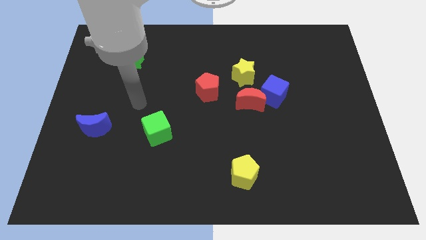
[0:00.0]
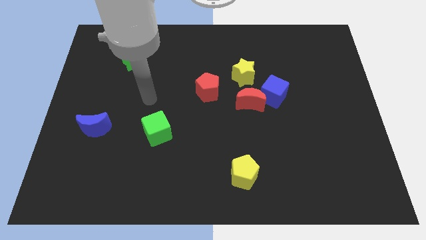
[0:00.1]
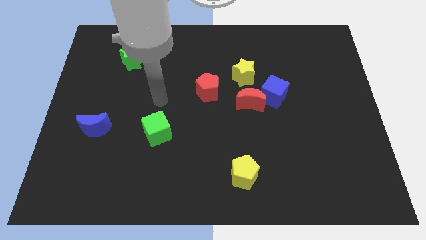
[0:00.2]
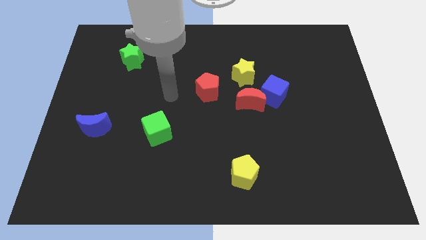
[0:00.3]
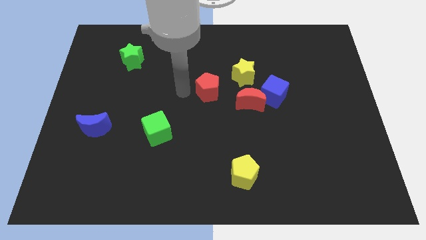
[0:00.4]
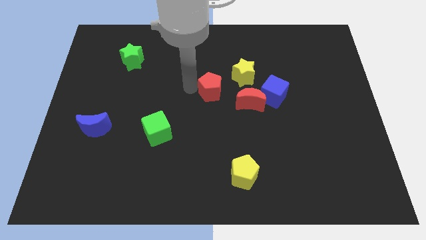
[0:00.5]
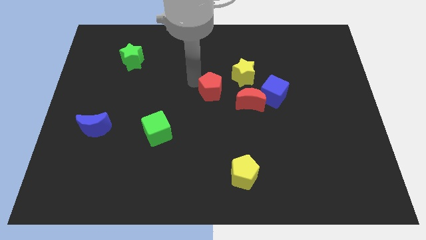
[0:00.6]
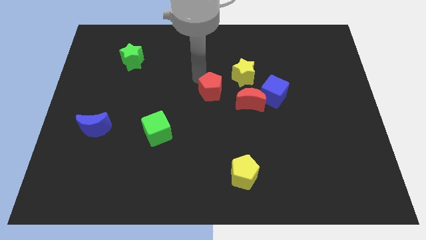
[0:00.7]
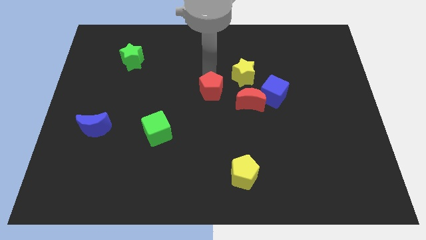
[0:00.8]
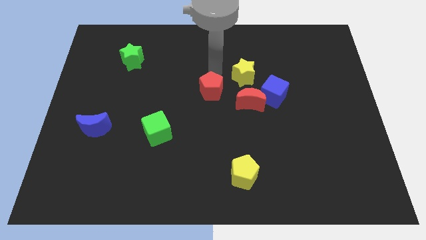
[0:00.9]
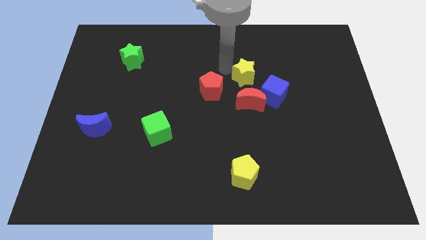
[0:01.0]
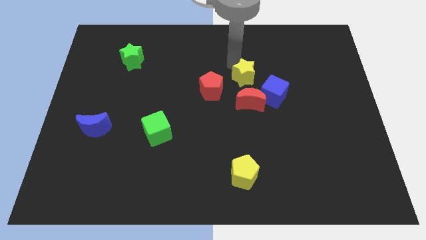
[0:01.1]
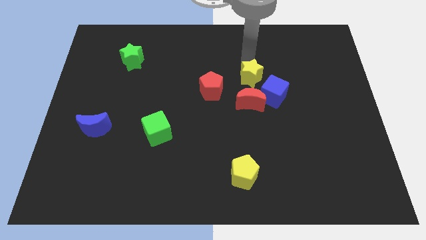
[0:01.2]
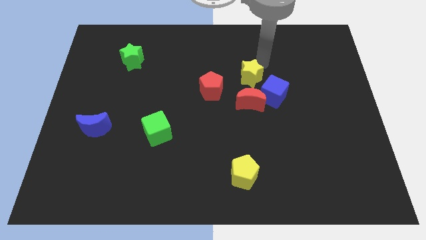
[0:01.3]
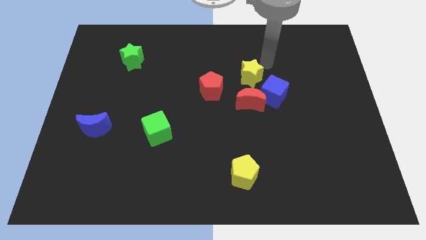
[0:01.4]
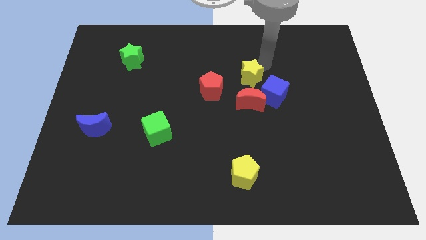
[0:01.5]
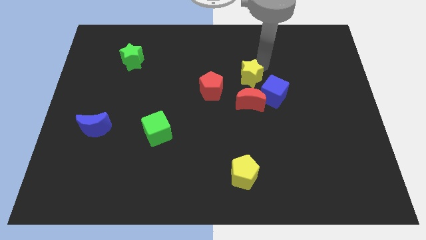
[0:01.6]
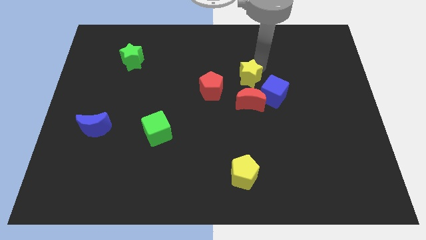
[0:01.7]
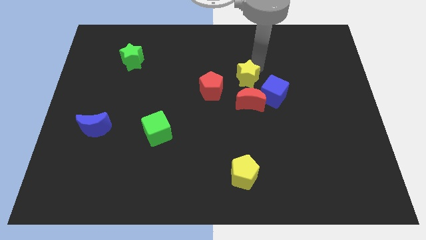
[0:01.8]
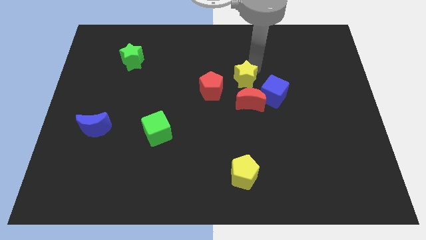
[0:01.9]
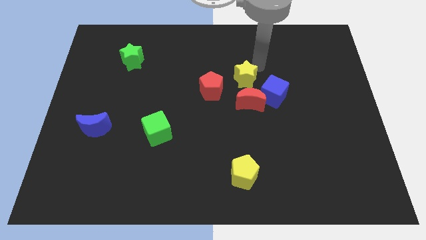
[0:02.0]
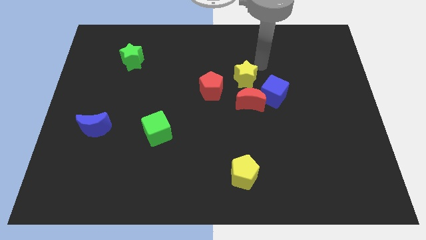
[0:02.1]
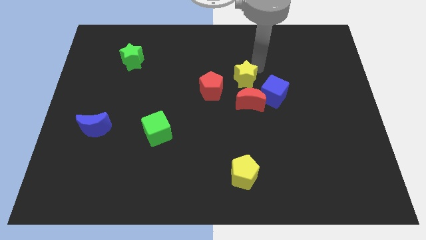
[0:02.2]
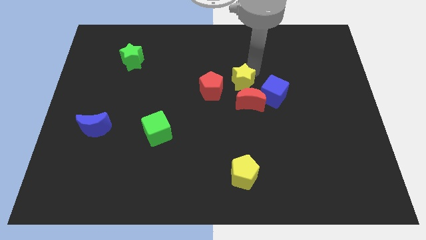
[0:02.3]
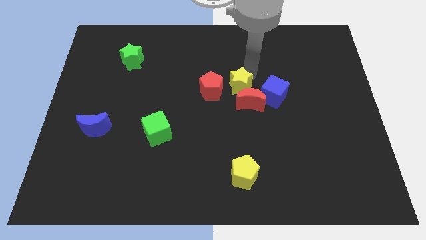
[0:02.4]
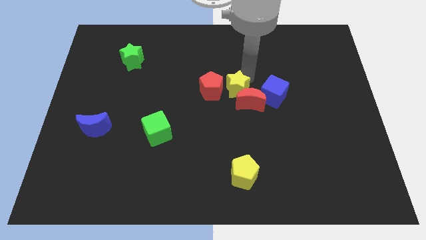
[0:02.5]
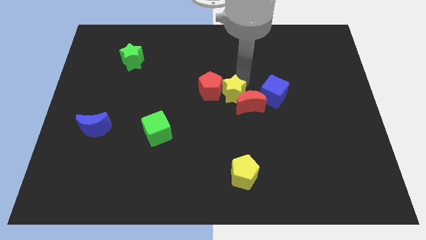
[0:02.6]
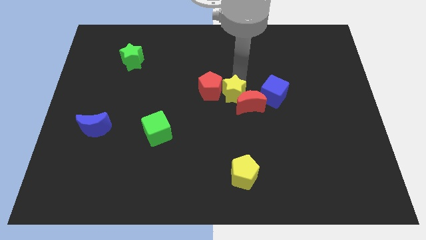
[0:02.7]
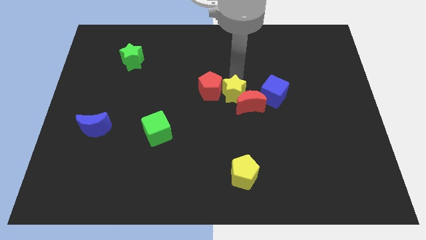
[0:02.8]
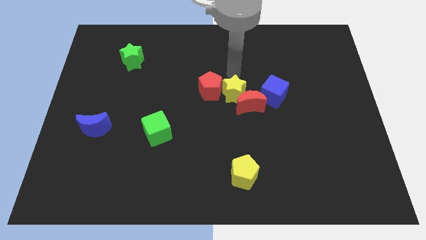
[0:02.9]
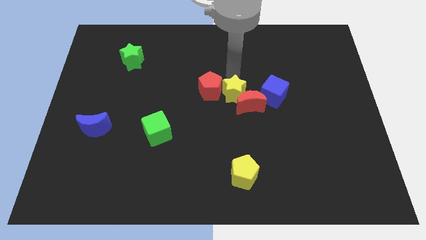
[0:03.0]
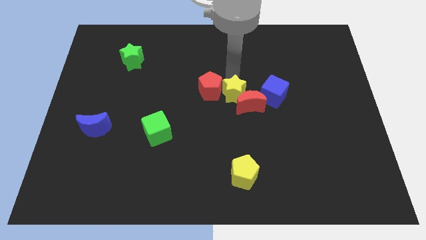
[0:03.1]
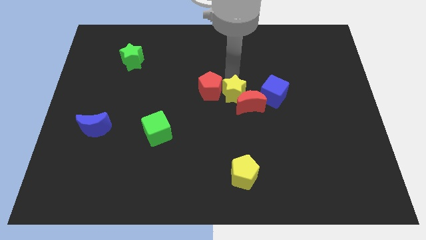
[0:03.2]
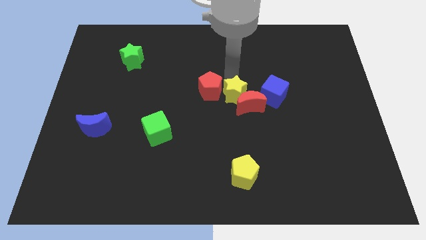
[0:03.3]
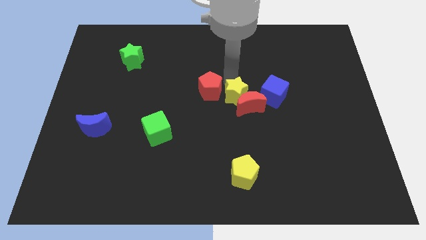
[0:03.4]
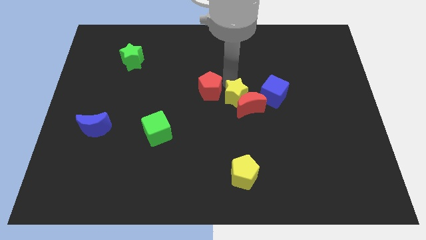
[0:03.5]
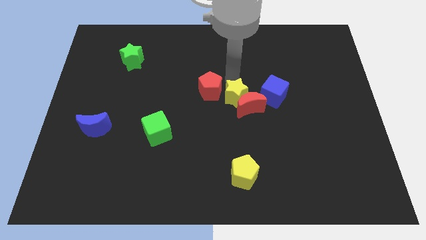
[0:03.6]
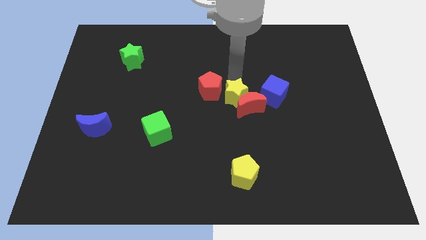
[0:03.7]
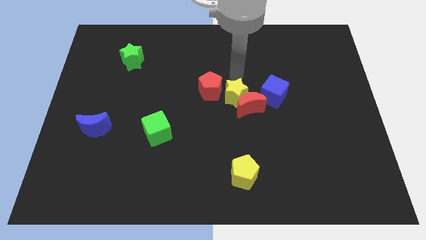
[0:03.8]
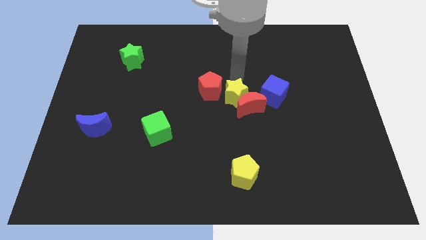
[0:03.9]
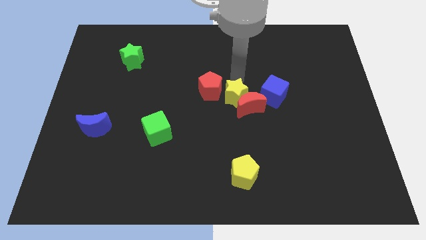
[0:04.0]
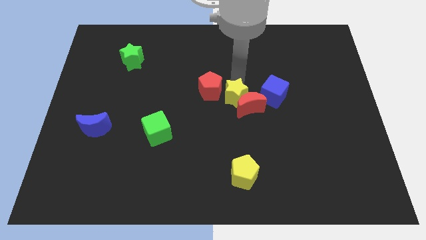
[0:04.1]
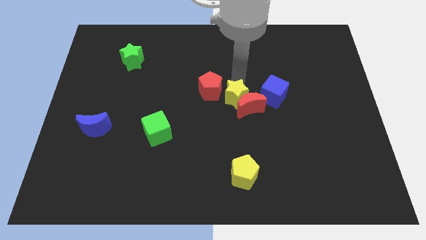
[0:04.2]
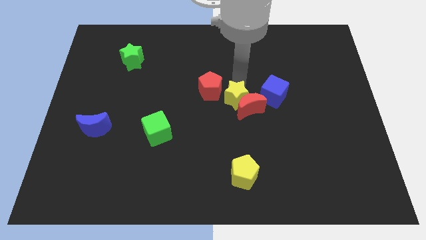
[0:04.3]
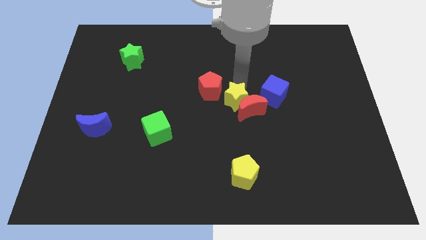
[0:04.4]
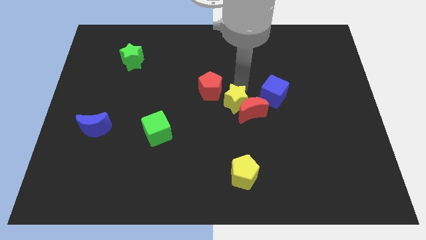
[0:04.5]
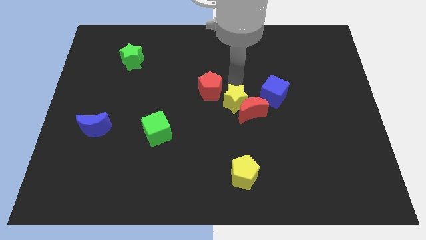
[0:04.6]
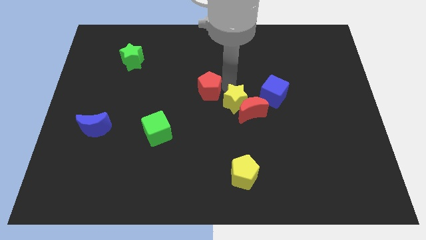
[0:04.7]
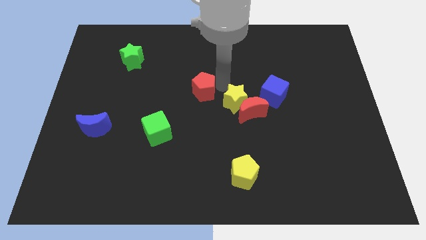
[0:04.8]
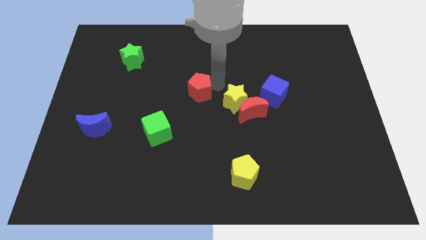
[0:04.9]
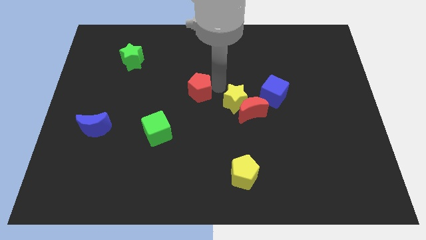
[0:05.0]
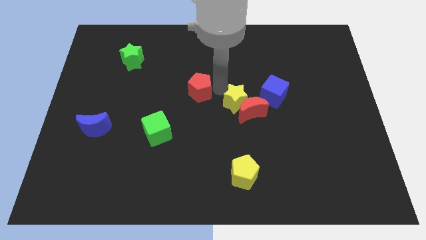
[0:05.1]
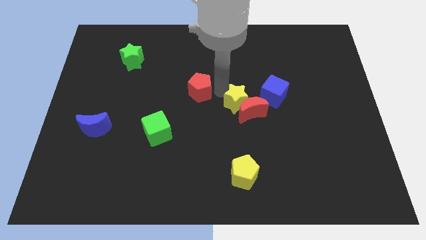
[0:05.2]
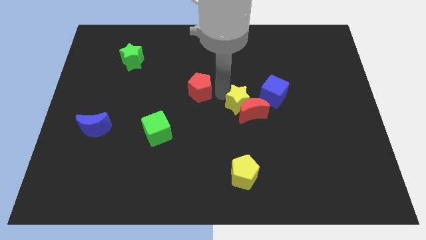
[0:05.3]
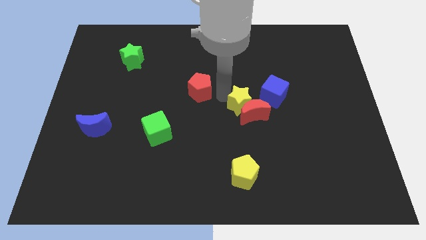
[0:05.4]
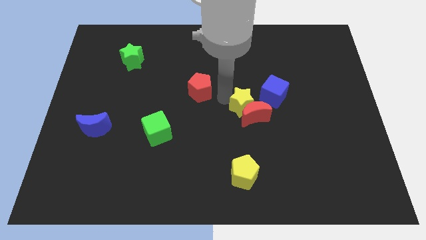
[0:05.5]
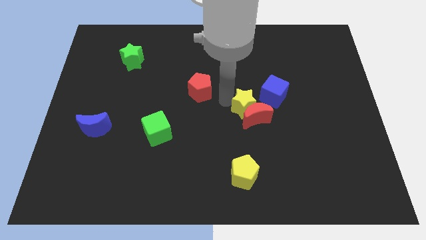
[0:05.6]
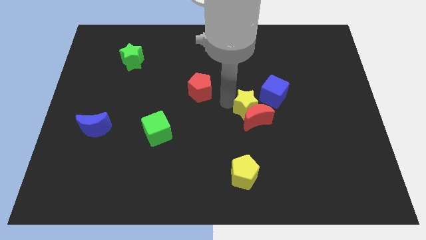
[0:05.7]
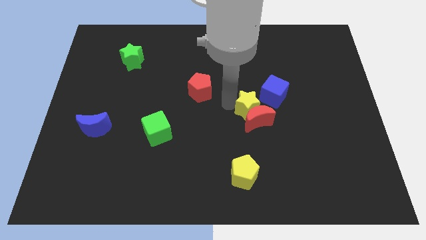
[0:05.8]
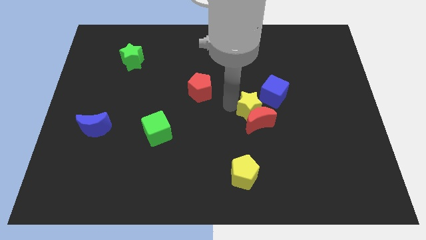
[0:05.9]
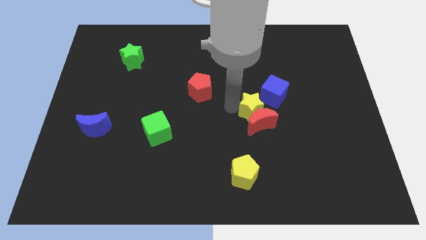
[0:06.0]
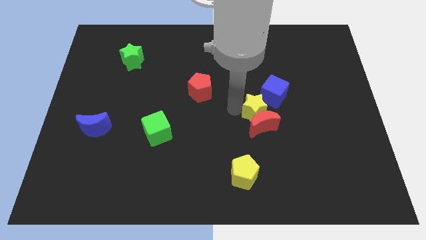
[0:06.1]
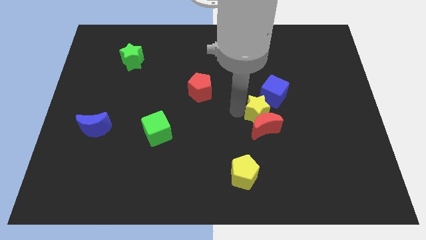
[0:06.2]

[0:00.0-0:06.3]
slide the yellow star below the blue cube

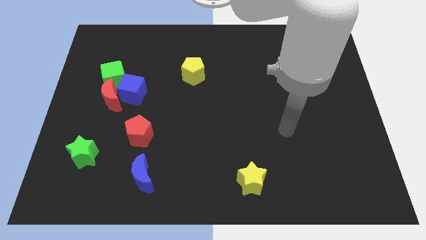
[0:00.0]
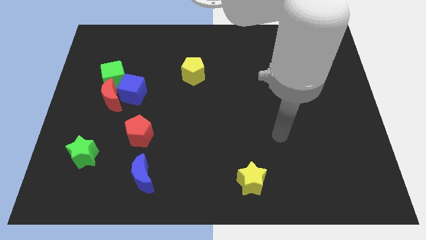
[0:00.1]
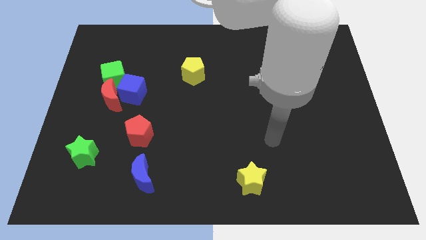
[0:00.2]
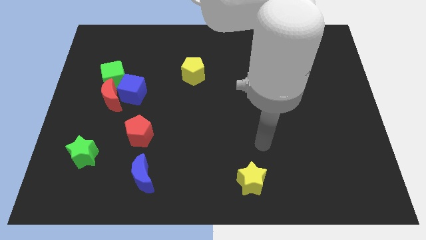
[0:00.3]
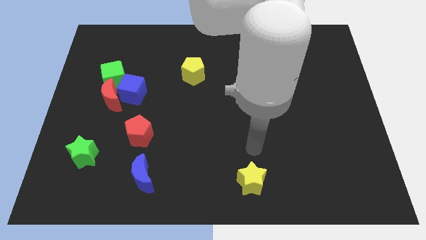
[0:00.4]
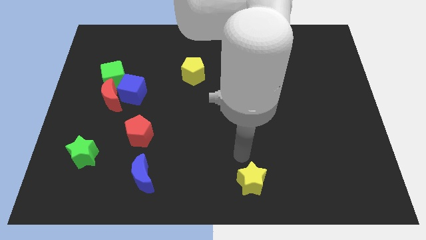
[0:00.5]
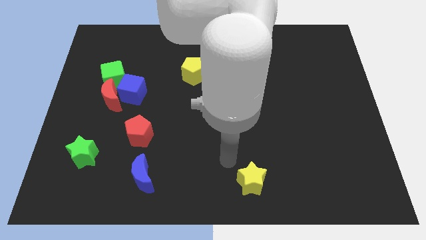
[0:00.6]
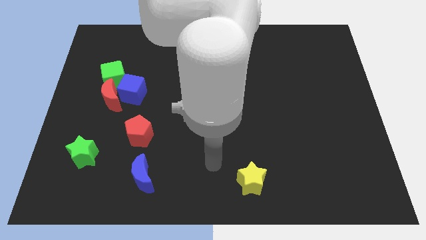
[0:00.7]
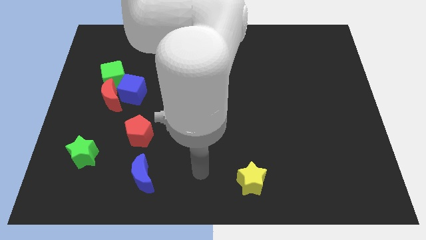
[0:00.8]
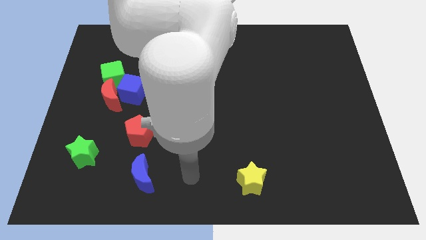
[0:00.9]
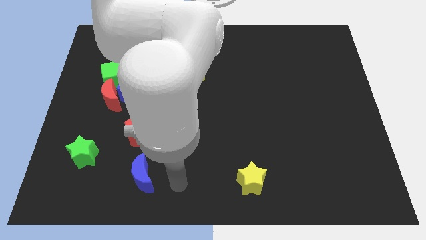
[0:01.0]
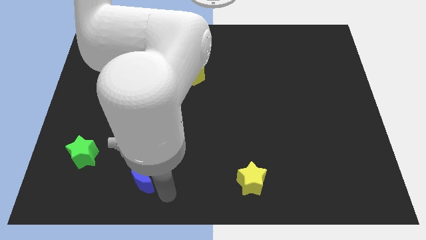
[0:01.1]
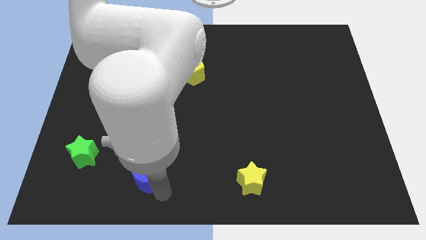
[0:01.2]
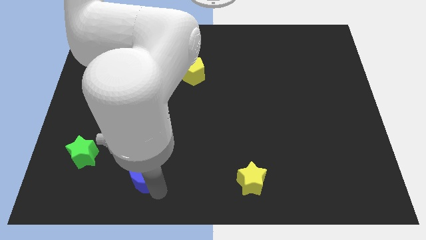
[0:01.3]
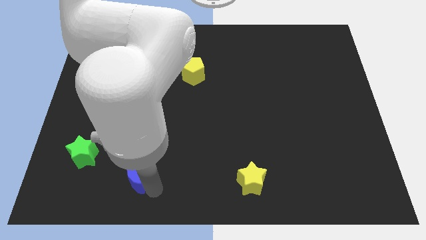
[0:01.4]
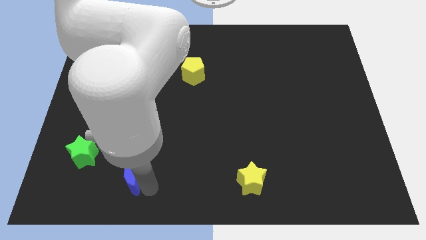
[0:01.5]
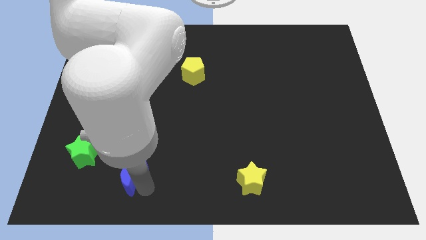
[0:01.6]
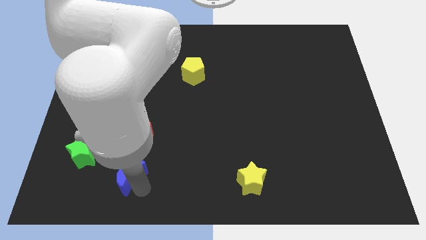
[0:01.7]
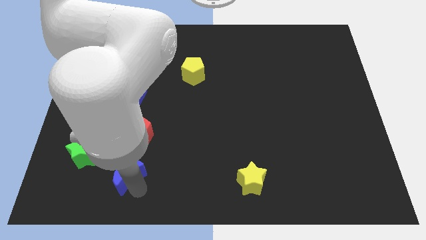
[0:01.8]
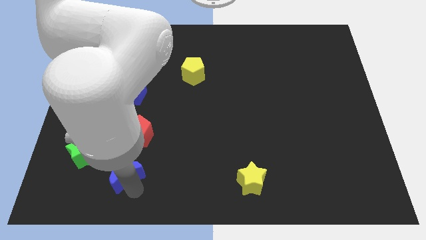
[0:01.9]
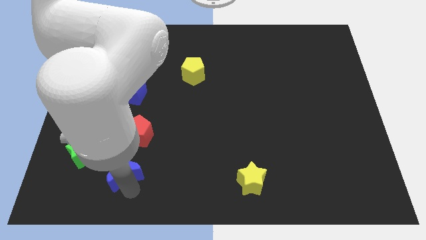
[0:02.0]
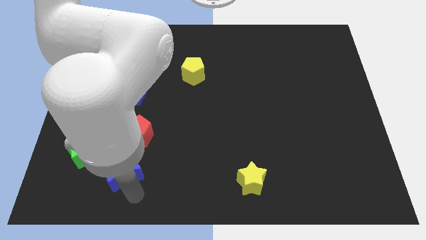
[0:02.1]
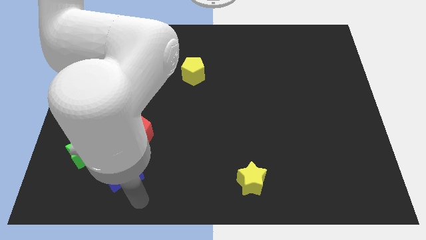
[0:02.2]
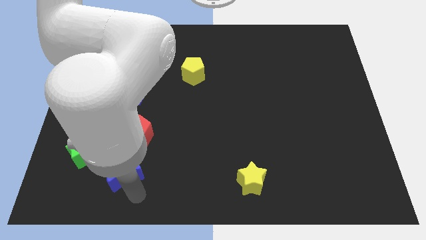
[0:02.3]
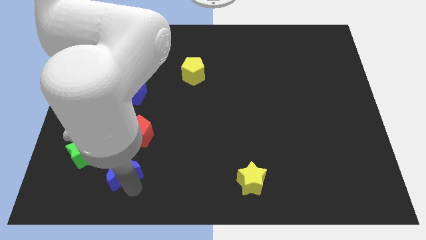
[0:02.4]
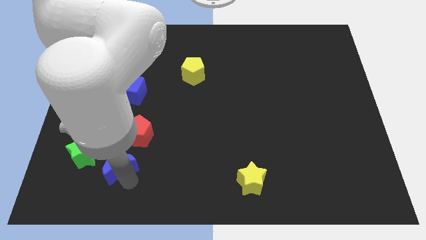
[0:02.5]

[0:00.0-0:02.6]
slide the blue moon to the bottom left side of the red pentagon
